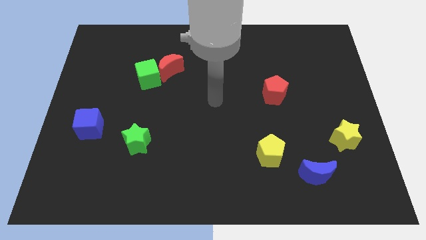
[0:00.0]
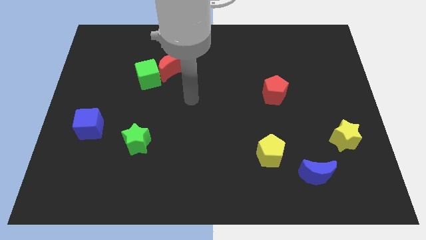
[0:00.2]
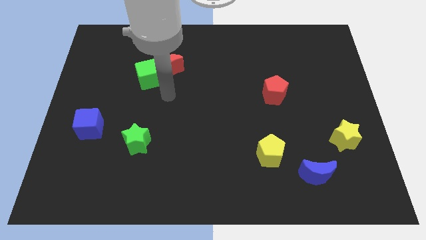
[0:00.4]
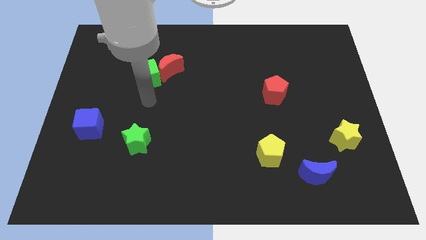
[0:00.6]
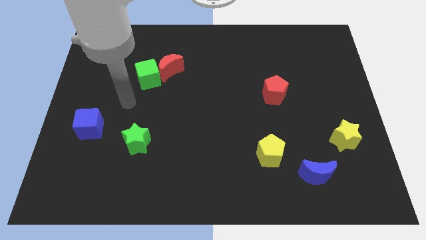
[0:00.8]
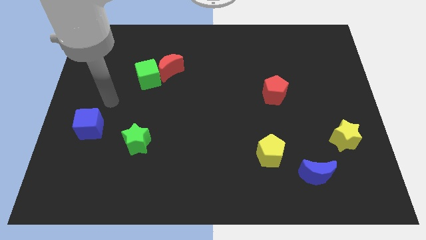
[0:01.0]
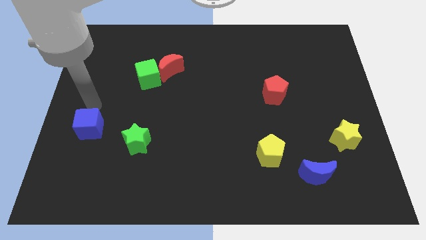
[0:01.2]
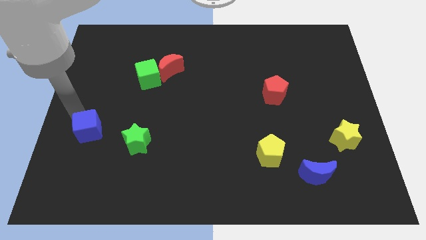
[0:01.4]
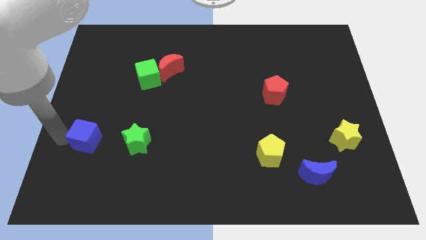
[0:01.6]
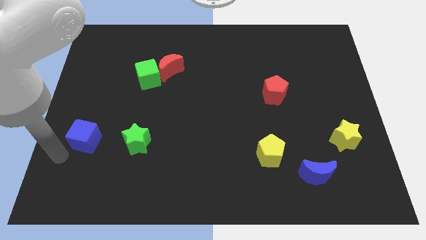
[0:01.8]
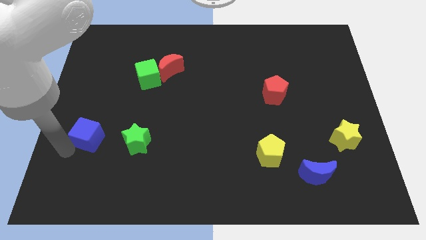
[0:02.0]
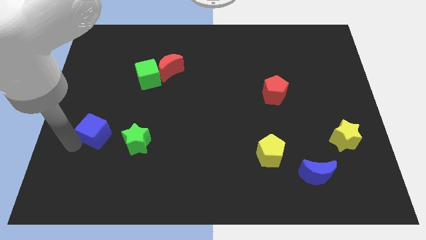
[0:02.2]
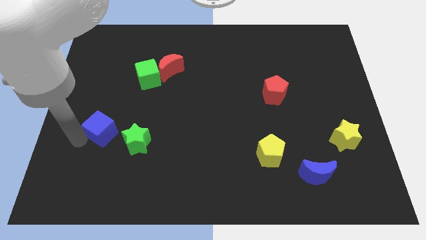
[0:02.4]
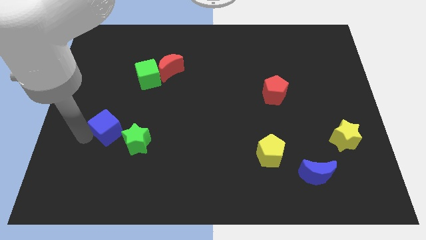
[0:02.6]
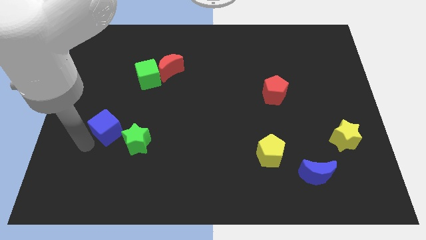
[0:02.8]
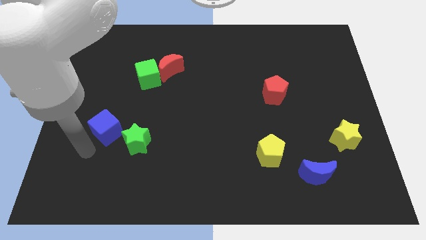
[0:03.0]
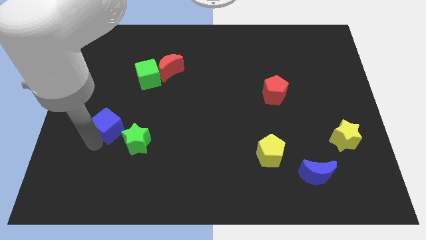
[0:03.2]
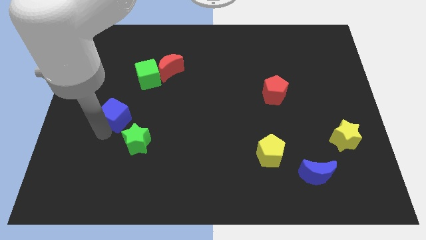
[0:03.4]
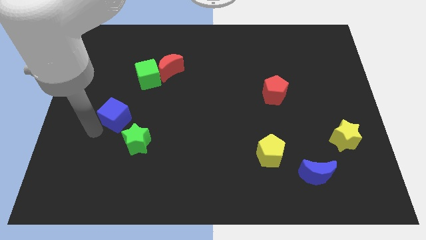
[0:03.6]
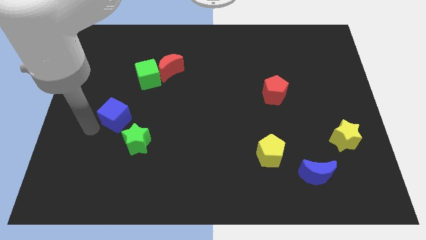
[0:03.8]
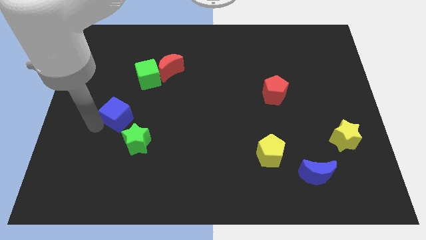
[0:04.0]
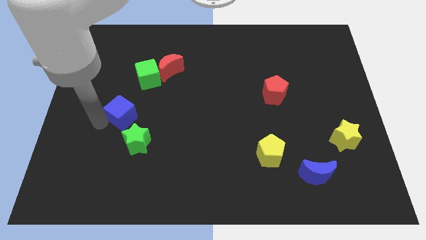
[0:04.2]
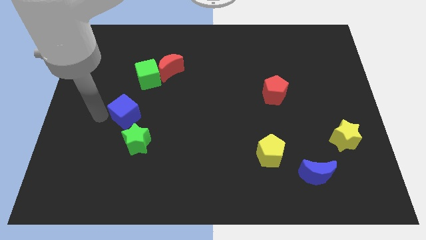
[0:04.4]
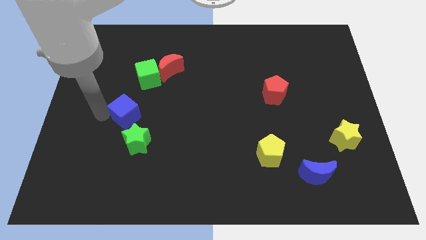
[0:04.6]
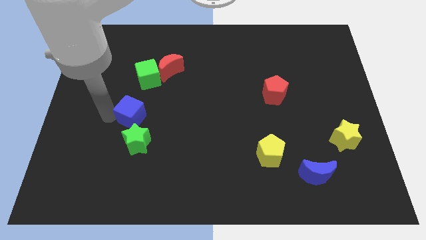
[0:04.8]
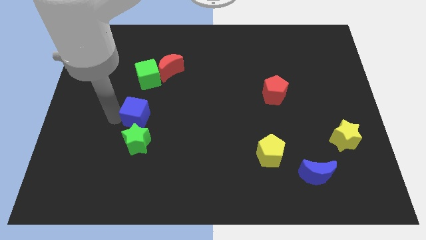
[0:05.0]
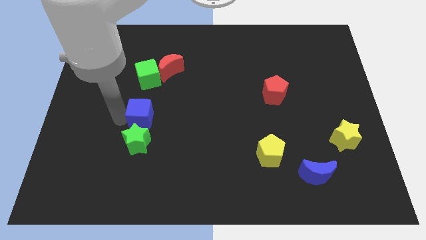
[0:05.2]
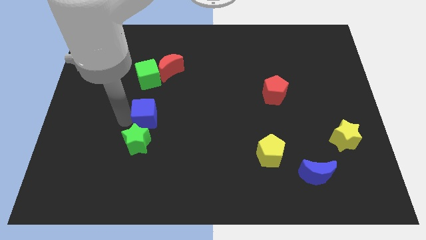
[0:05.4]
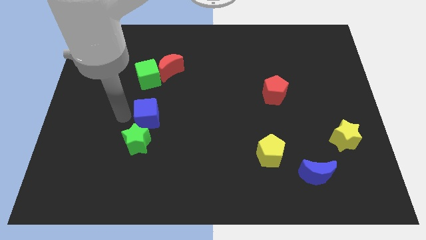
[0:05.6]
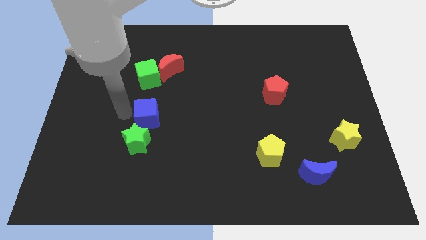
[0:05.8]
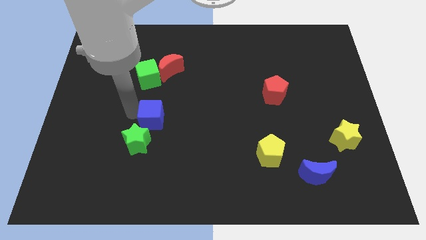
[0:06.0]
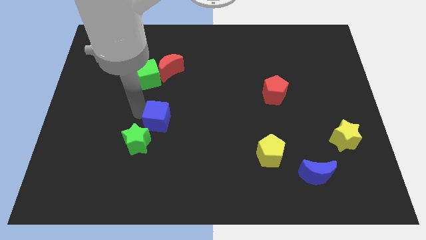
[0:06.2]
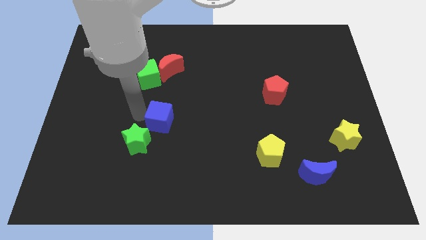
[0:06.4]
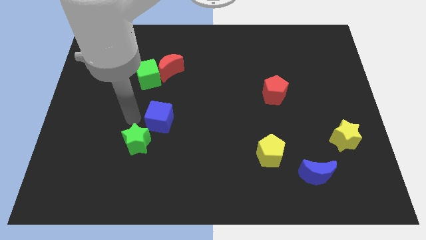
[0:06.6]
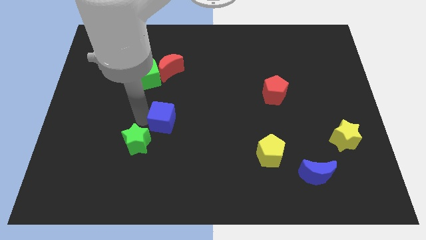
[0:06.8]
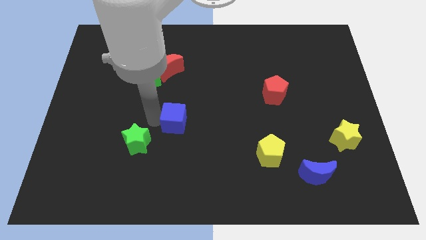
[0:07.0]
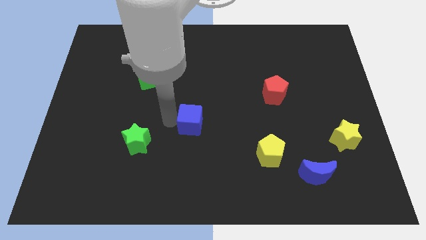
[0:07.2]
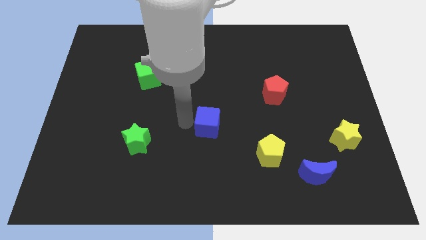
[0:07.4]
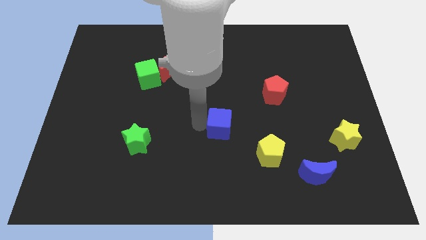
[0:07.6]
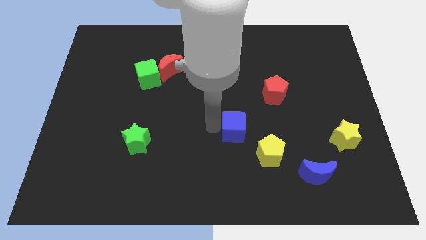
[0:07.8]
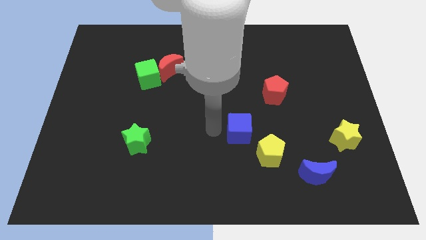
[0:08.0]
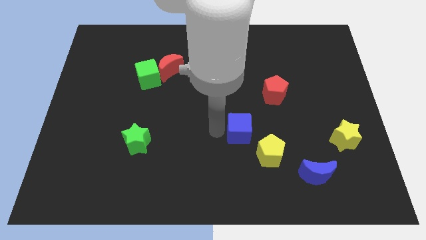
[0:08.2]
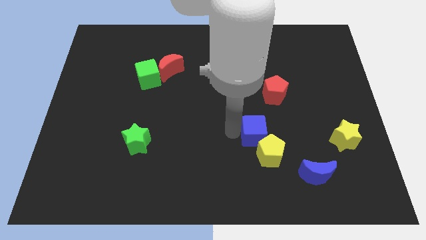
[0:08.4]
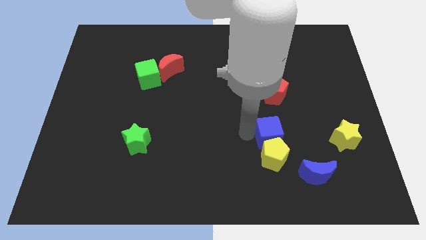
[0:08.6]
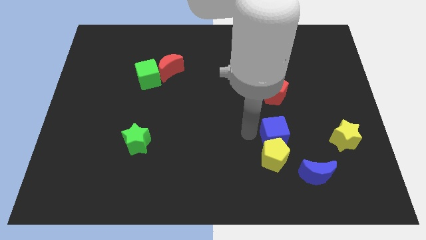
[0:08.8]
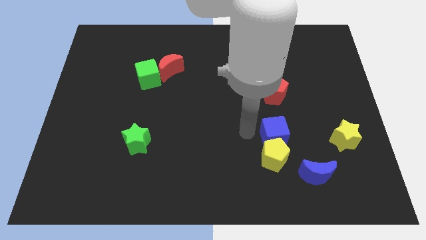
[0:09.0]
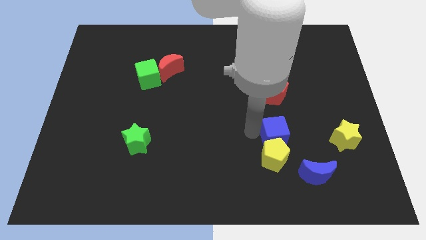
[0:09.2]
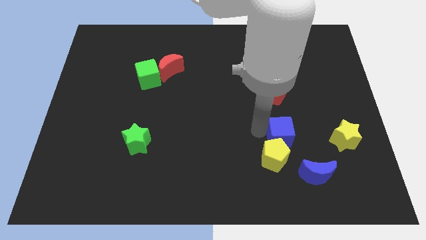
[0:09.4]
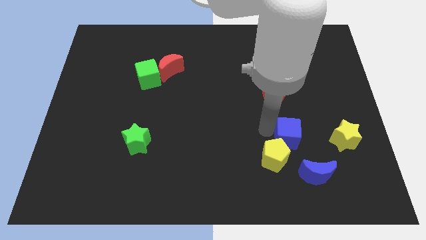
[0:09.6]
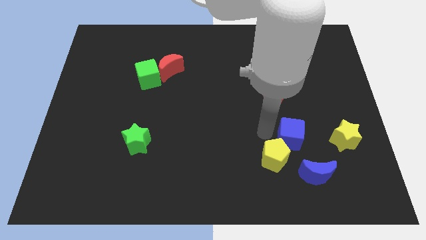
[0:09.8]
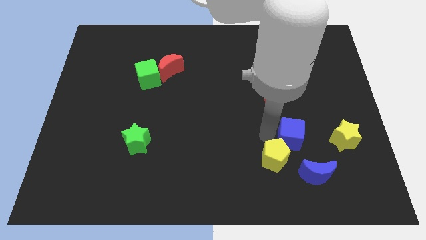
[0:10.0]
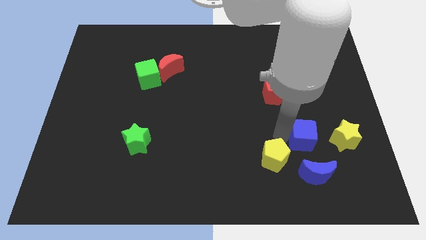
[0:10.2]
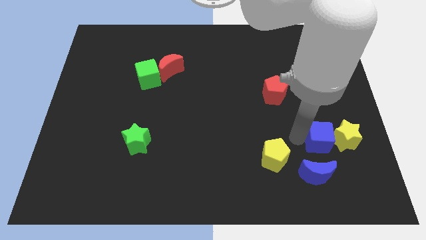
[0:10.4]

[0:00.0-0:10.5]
slide the blue cube towards the yellow star

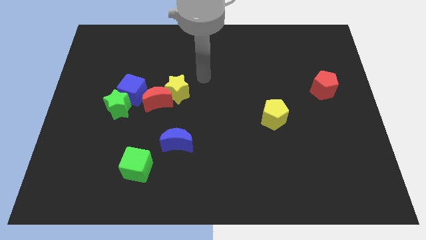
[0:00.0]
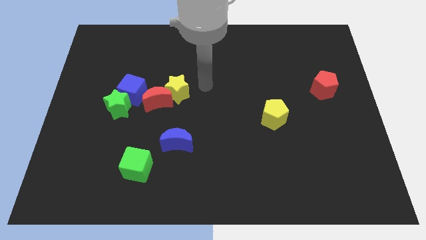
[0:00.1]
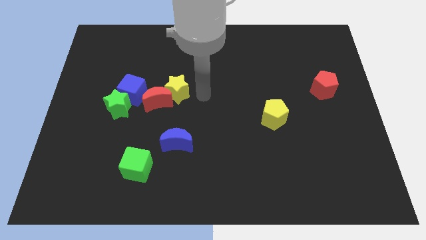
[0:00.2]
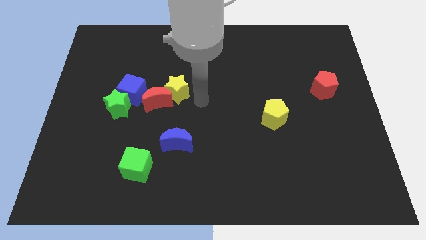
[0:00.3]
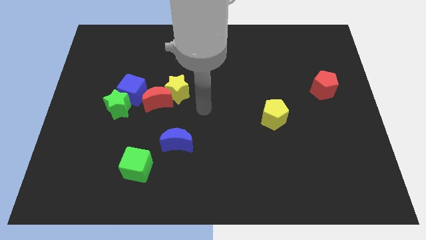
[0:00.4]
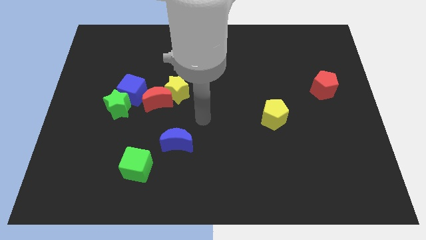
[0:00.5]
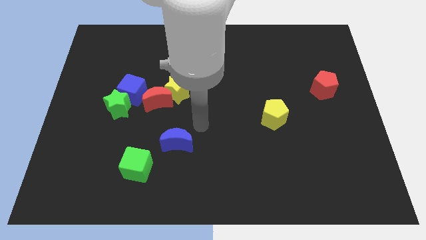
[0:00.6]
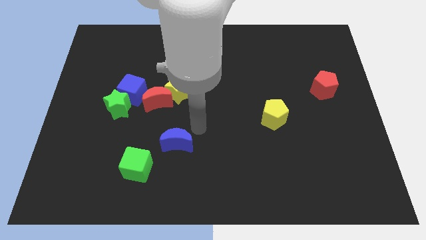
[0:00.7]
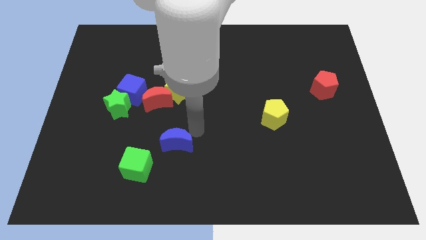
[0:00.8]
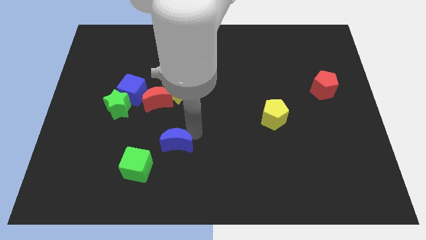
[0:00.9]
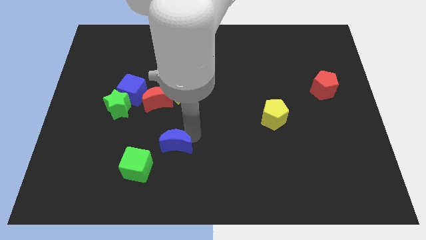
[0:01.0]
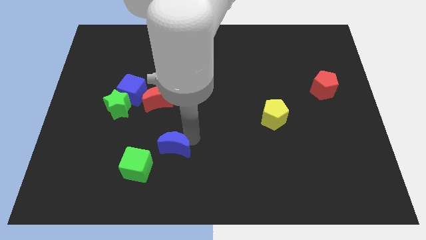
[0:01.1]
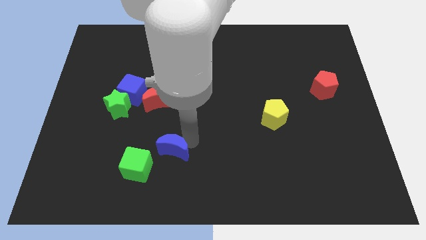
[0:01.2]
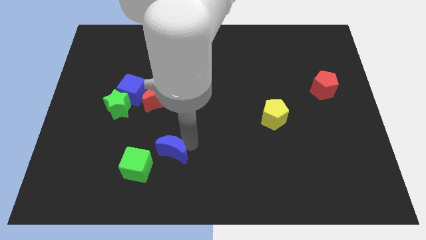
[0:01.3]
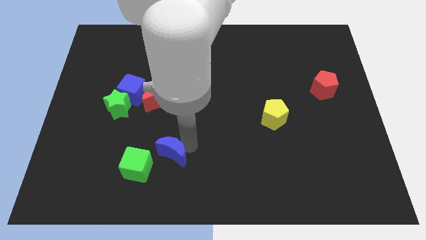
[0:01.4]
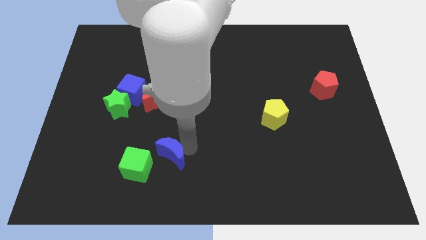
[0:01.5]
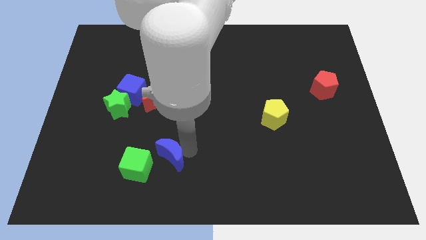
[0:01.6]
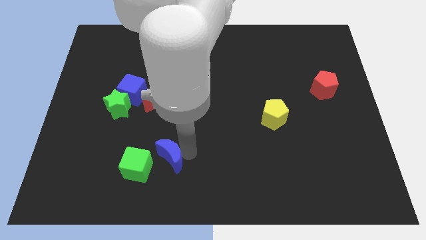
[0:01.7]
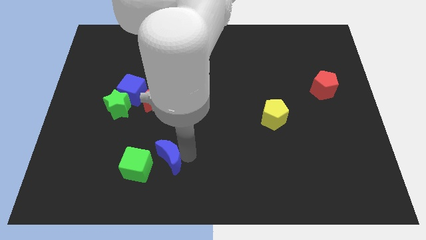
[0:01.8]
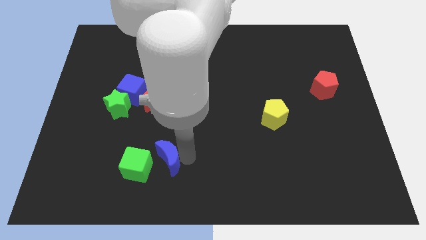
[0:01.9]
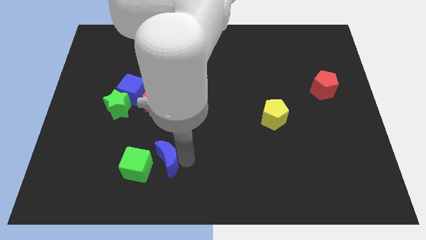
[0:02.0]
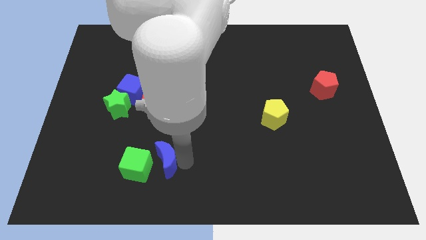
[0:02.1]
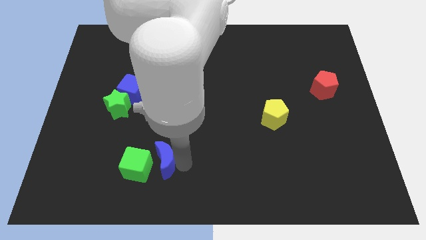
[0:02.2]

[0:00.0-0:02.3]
put the blue moon to the green cube
